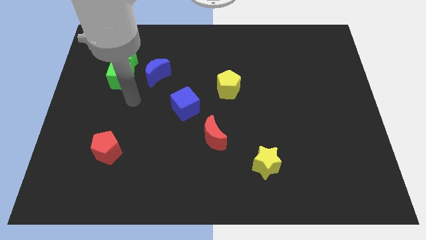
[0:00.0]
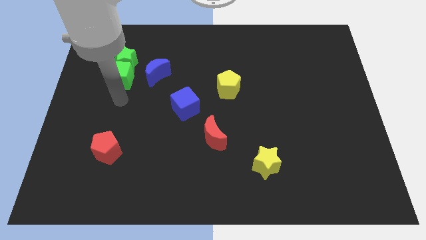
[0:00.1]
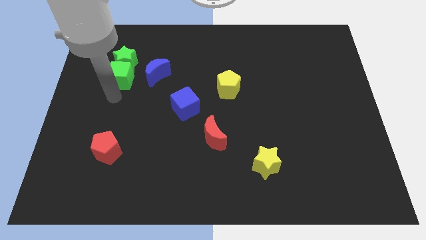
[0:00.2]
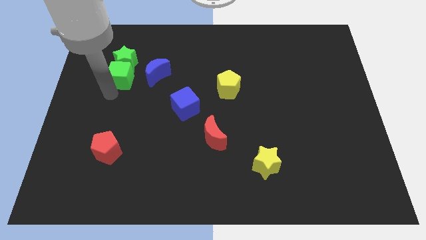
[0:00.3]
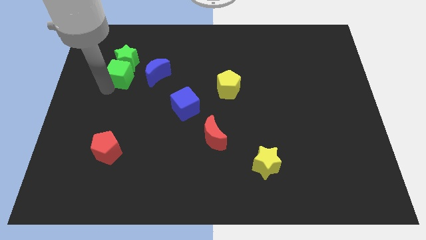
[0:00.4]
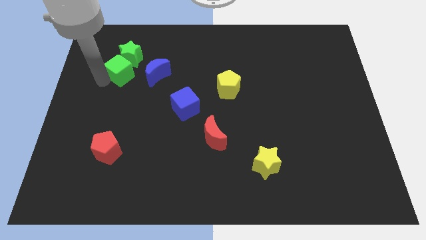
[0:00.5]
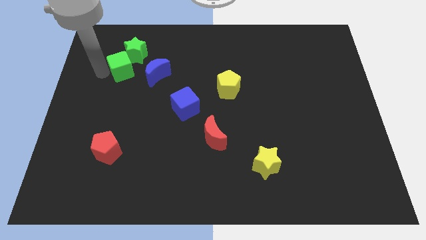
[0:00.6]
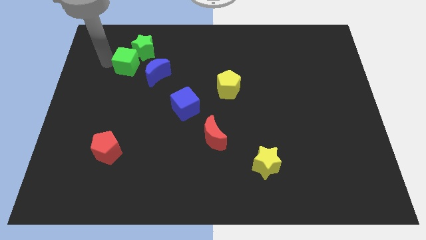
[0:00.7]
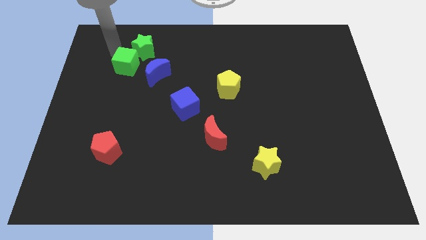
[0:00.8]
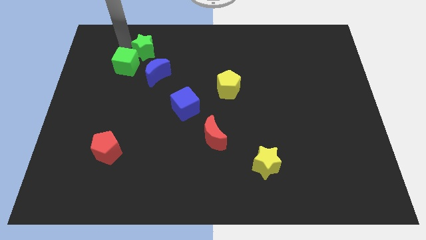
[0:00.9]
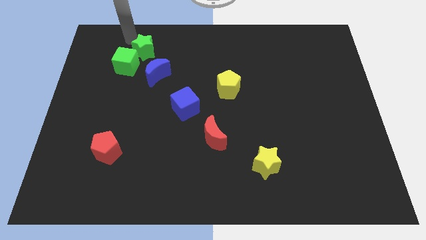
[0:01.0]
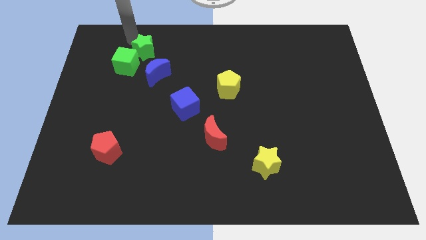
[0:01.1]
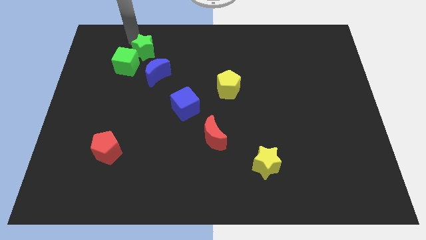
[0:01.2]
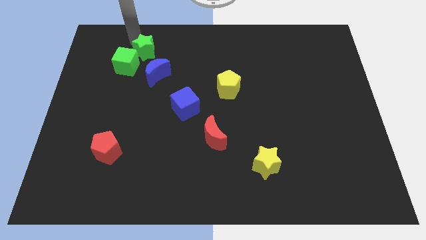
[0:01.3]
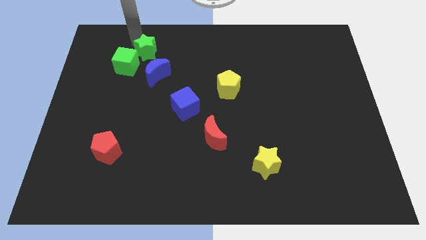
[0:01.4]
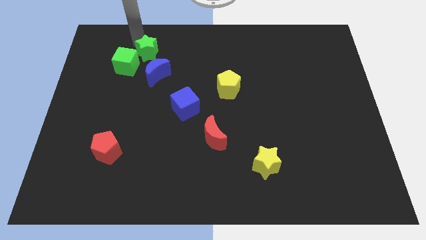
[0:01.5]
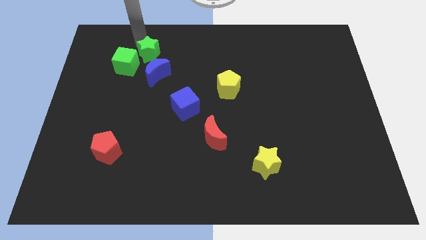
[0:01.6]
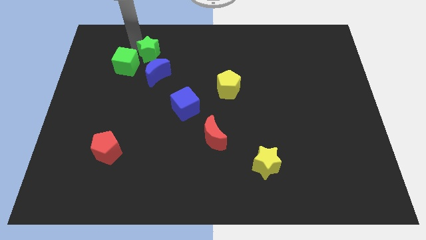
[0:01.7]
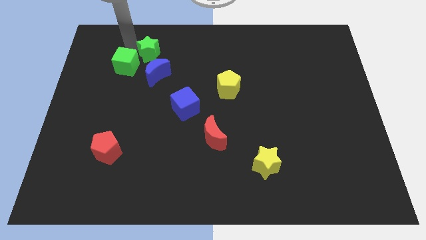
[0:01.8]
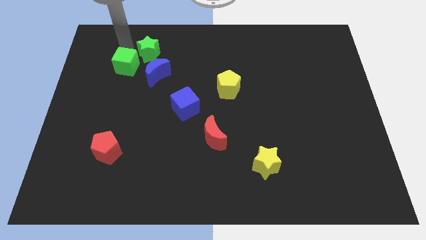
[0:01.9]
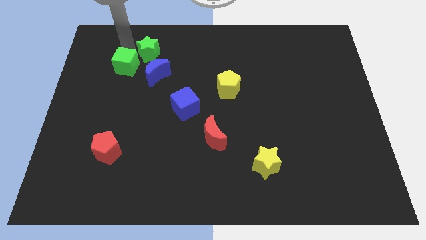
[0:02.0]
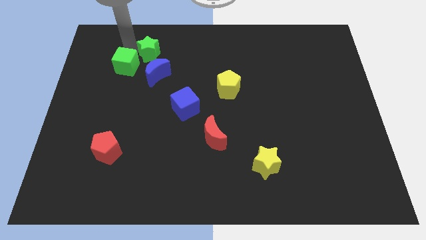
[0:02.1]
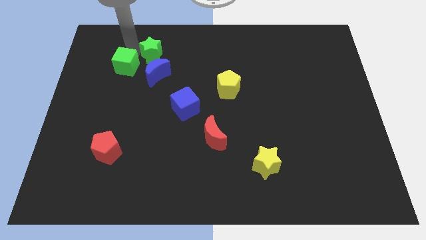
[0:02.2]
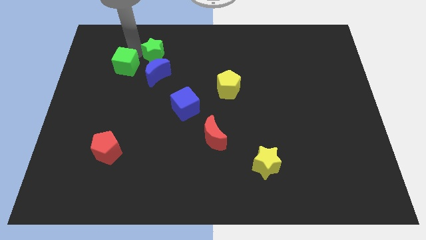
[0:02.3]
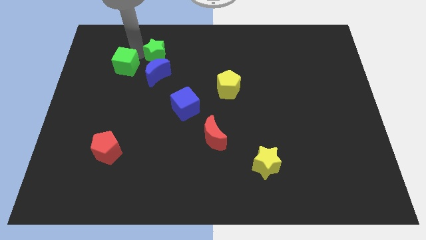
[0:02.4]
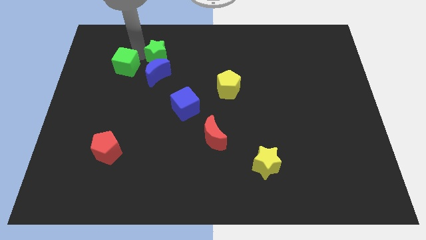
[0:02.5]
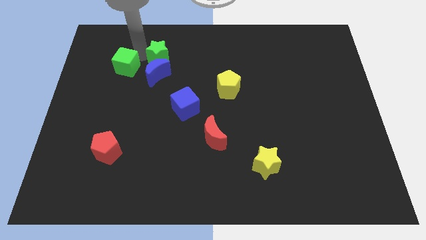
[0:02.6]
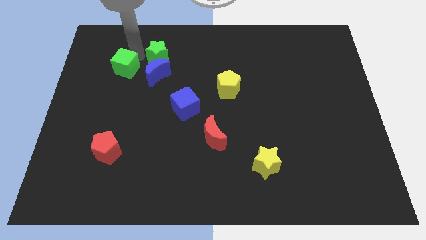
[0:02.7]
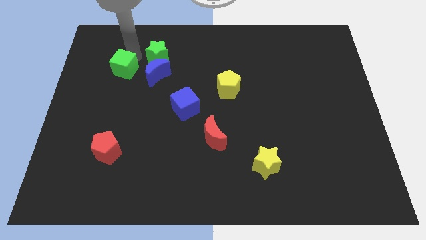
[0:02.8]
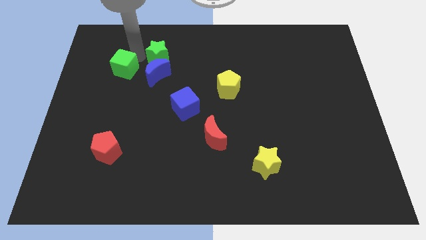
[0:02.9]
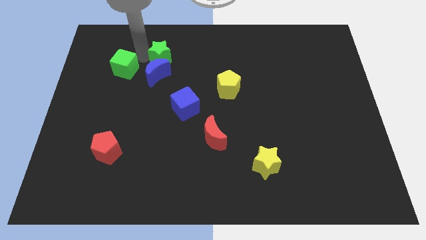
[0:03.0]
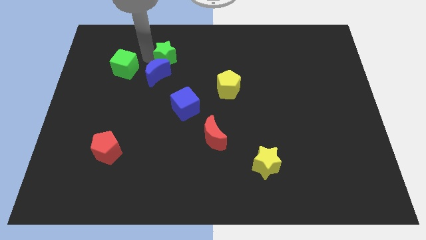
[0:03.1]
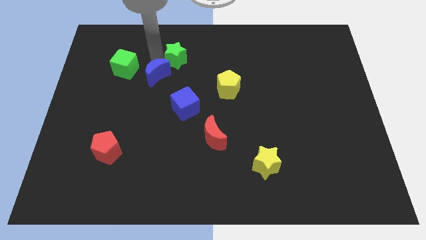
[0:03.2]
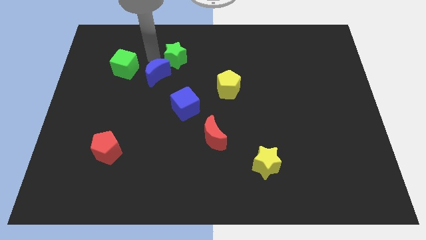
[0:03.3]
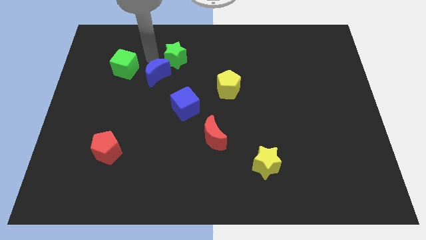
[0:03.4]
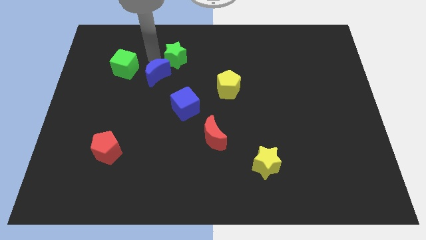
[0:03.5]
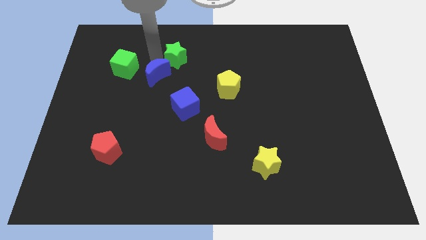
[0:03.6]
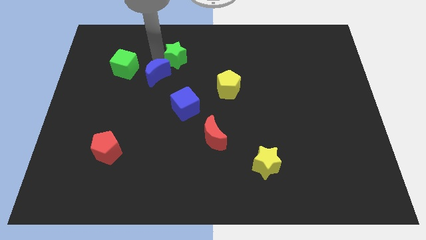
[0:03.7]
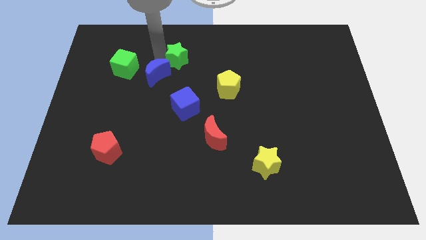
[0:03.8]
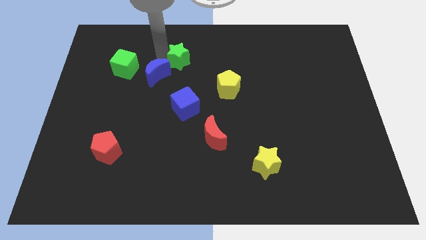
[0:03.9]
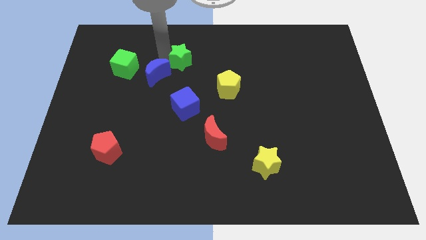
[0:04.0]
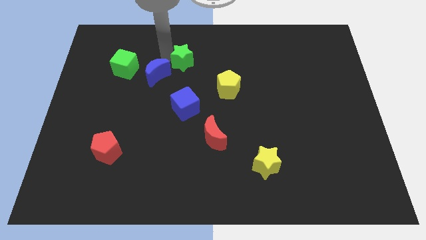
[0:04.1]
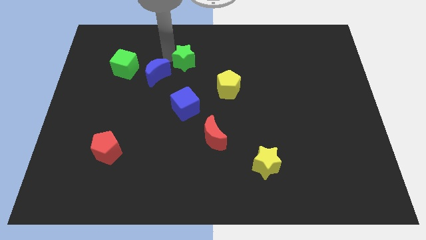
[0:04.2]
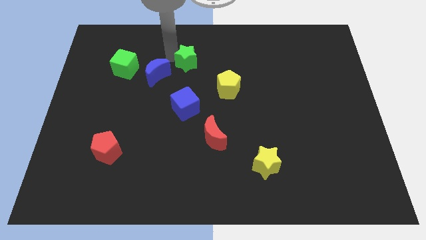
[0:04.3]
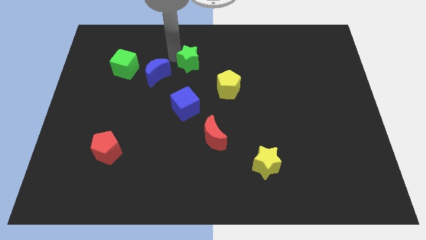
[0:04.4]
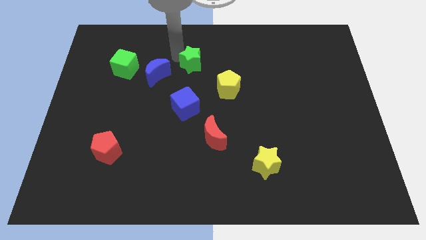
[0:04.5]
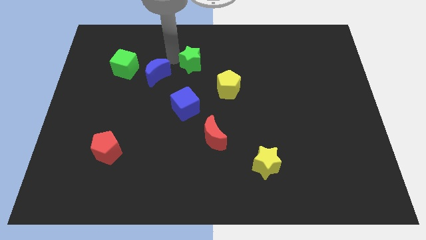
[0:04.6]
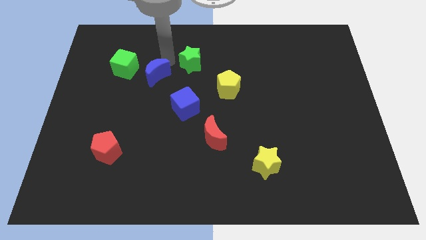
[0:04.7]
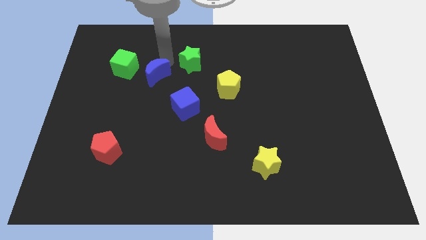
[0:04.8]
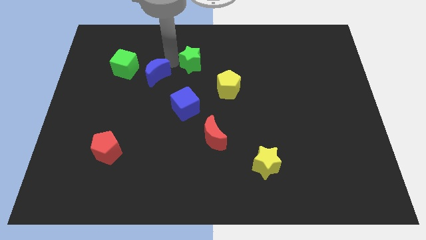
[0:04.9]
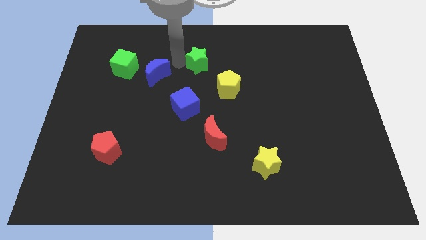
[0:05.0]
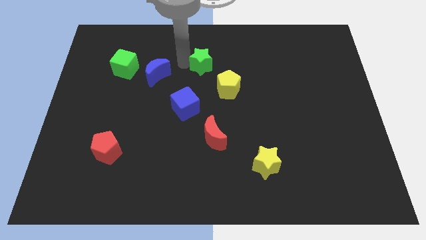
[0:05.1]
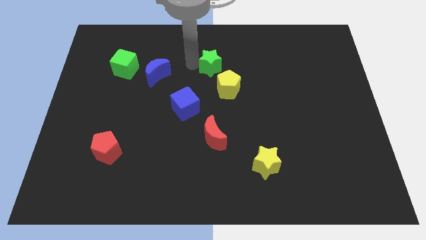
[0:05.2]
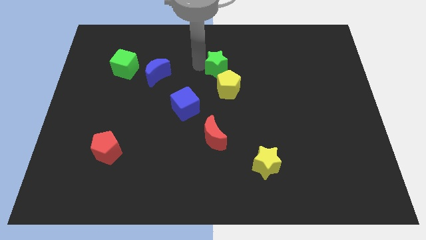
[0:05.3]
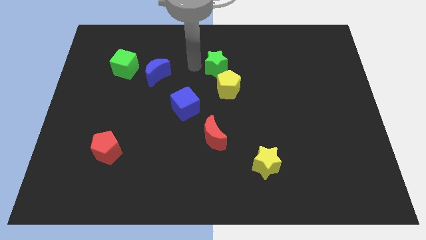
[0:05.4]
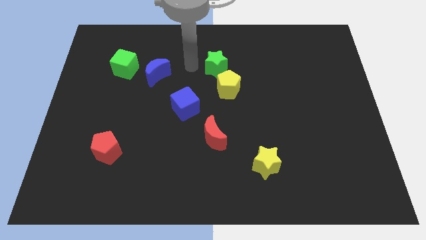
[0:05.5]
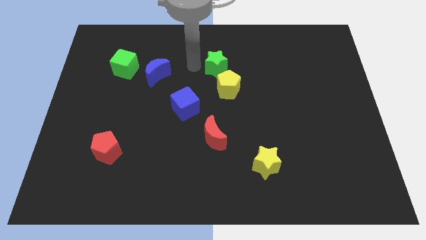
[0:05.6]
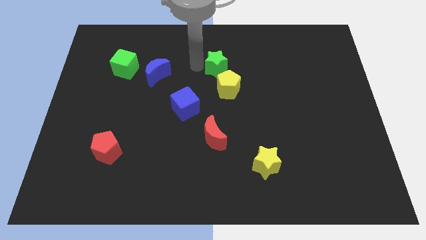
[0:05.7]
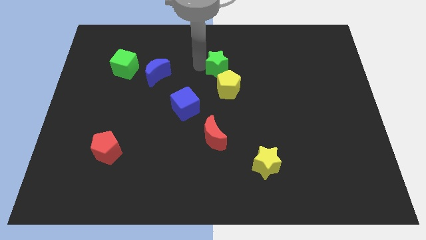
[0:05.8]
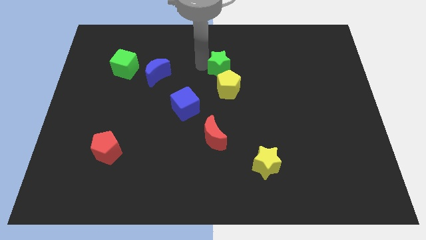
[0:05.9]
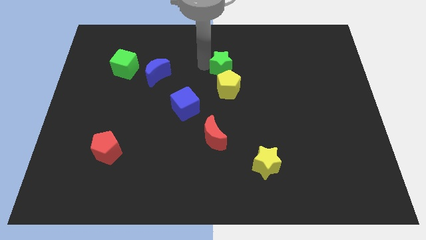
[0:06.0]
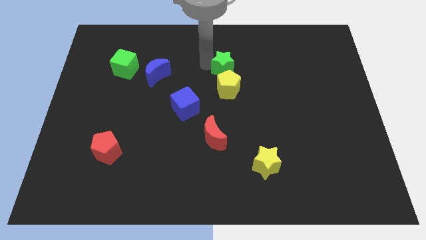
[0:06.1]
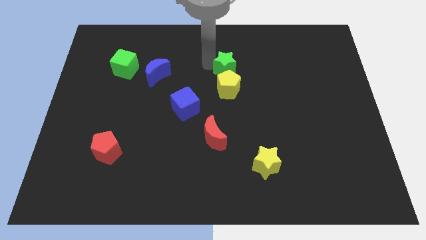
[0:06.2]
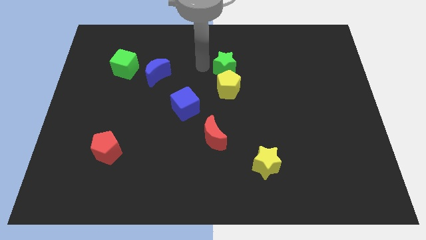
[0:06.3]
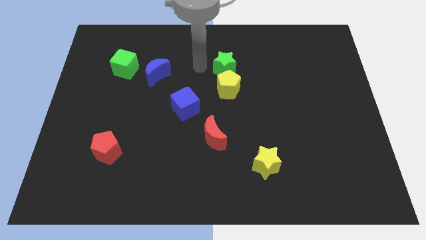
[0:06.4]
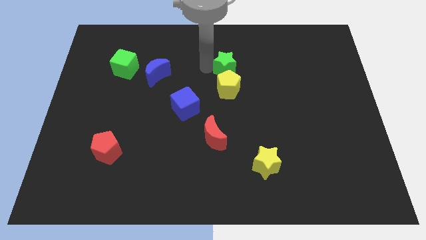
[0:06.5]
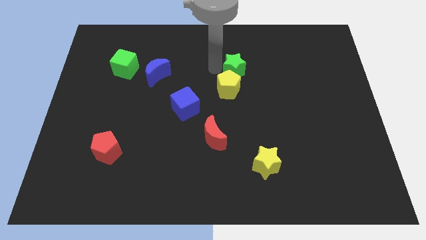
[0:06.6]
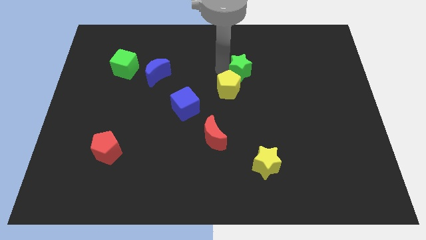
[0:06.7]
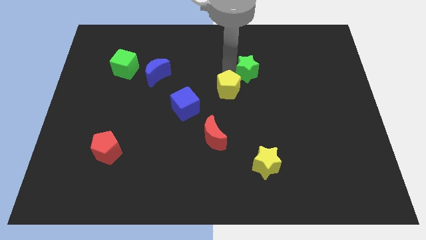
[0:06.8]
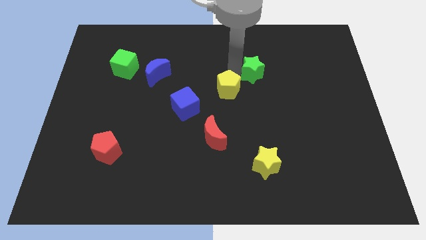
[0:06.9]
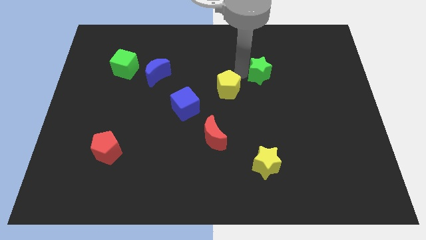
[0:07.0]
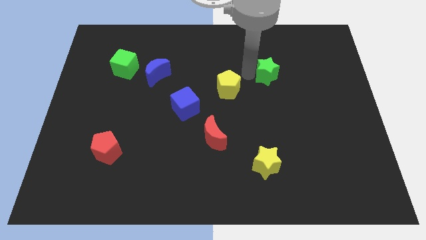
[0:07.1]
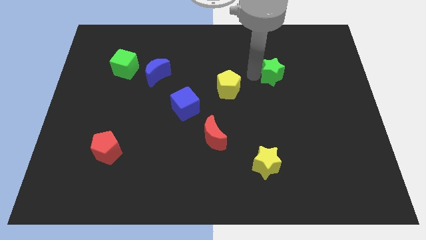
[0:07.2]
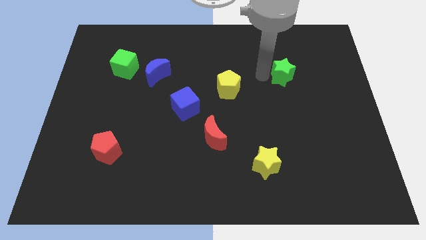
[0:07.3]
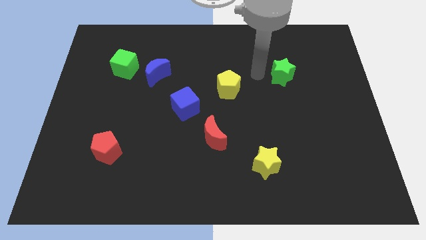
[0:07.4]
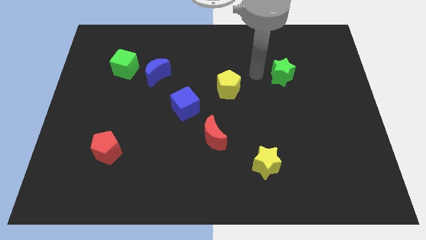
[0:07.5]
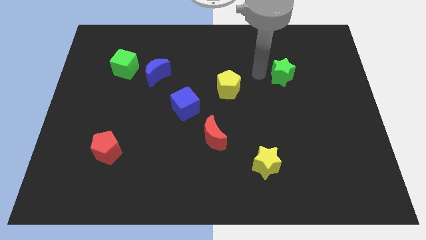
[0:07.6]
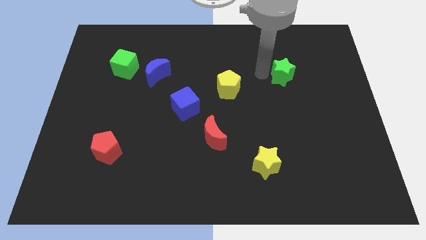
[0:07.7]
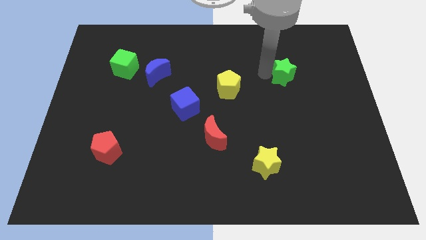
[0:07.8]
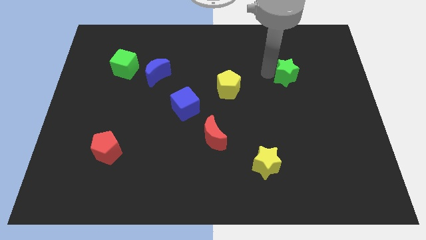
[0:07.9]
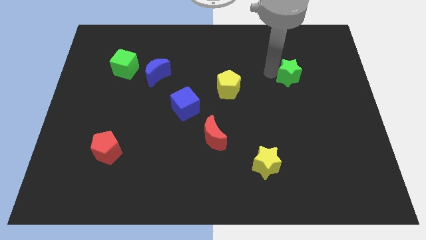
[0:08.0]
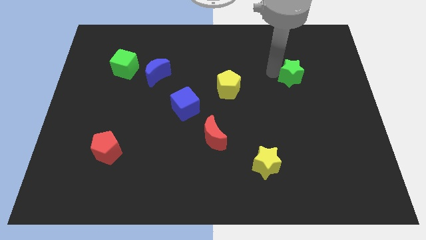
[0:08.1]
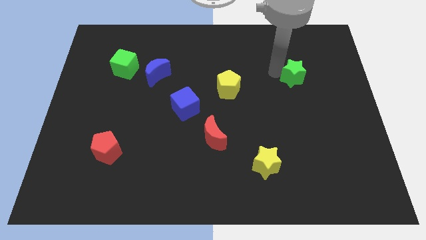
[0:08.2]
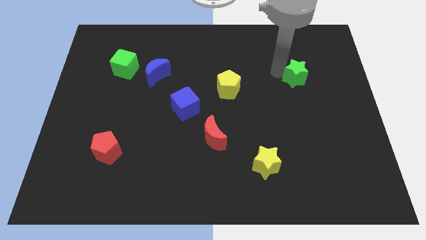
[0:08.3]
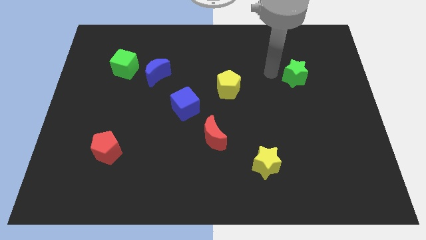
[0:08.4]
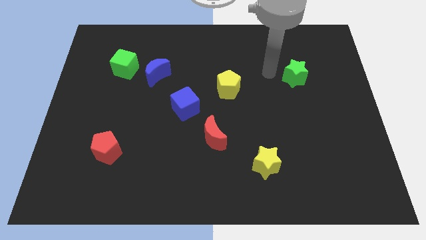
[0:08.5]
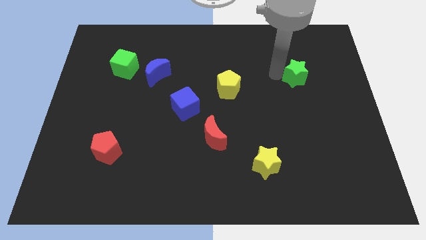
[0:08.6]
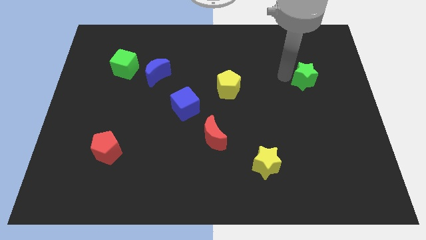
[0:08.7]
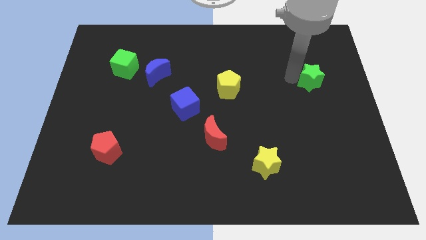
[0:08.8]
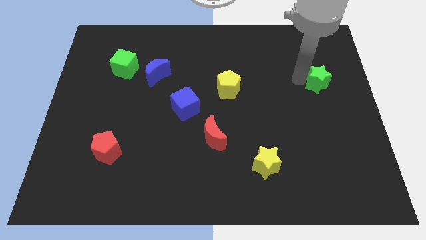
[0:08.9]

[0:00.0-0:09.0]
put the green star to the right side
